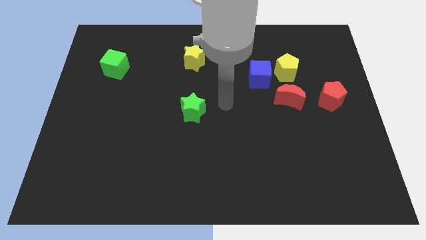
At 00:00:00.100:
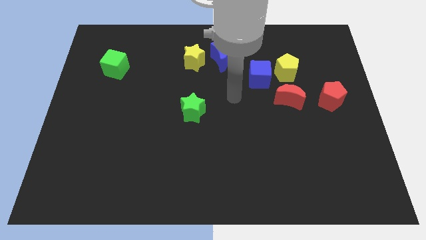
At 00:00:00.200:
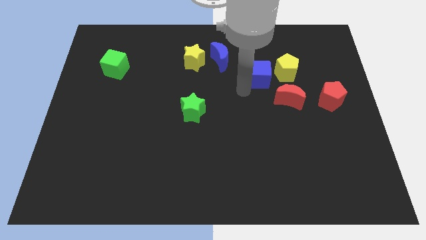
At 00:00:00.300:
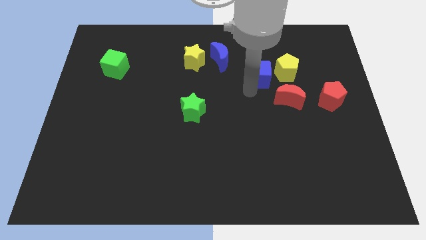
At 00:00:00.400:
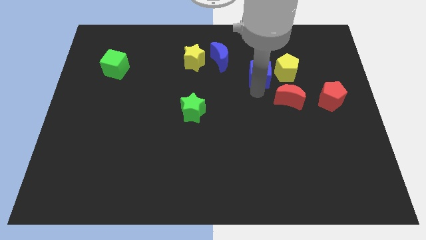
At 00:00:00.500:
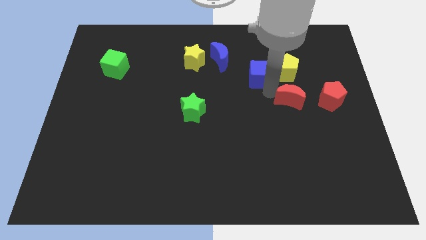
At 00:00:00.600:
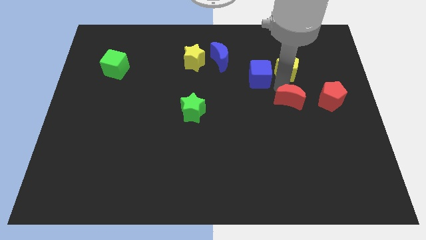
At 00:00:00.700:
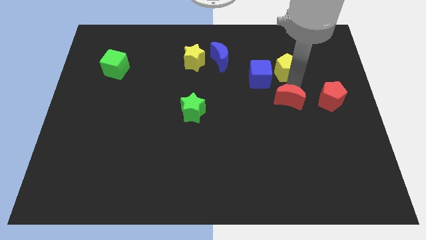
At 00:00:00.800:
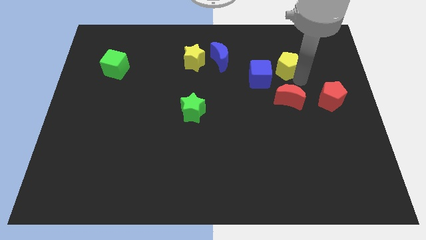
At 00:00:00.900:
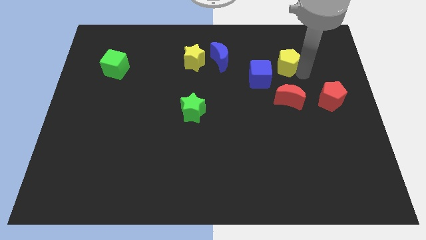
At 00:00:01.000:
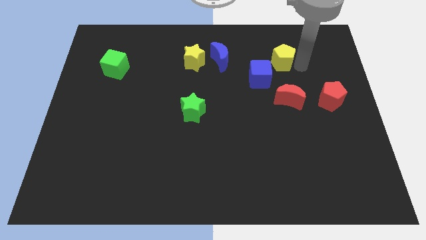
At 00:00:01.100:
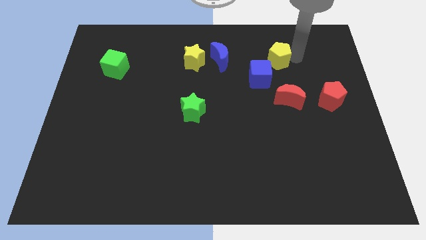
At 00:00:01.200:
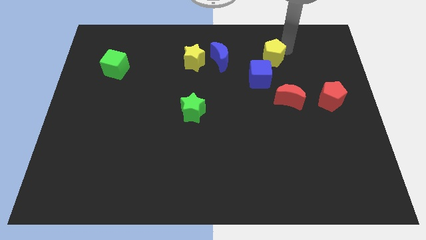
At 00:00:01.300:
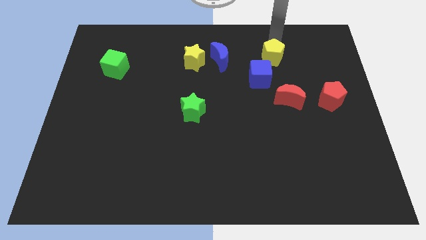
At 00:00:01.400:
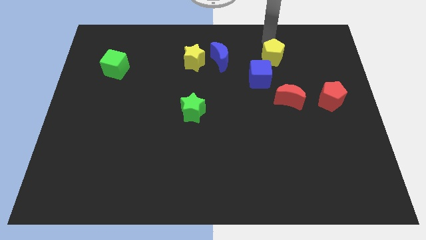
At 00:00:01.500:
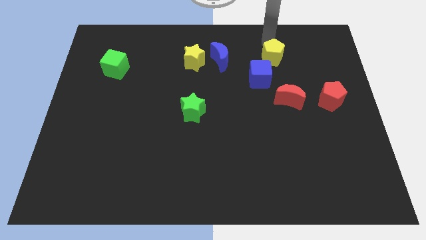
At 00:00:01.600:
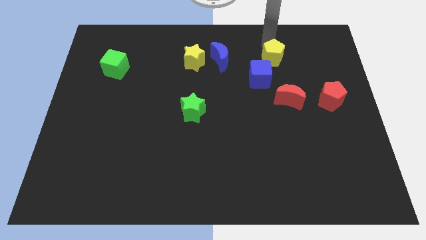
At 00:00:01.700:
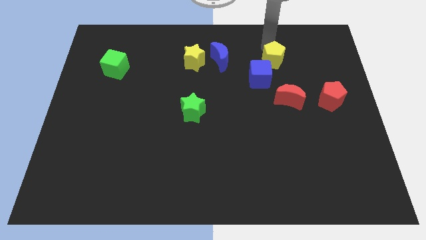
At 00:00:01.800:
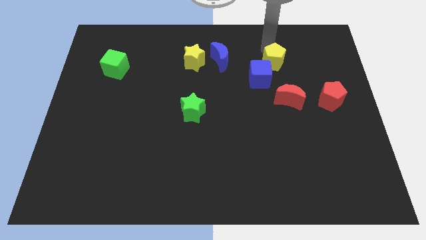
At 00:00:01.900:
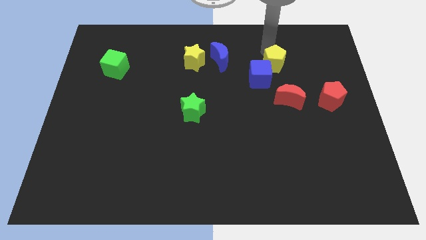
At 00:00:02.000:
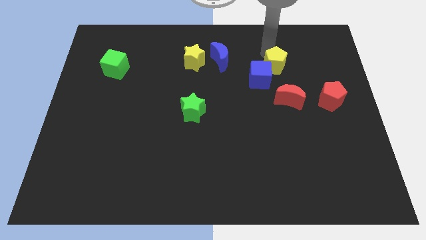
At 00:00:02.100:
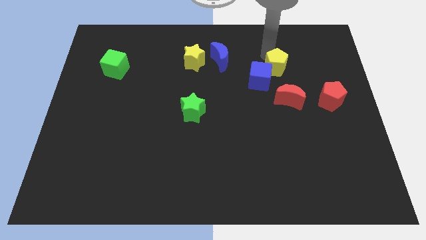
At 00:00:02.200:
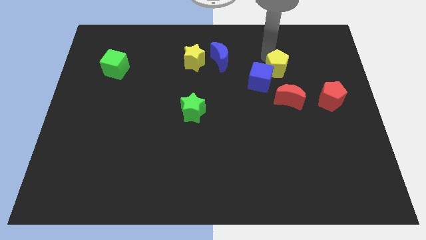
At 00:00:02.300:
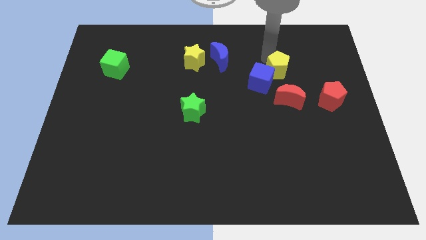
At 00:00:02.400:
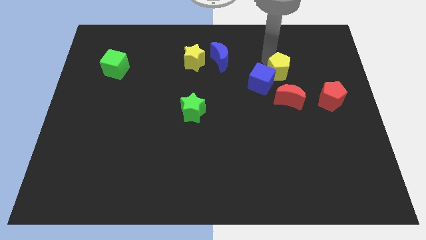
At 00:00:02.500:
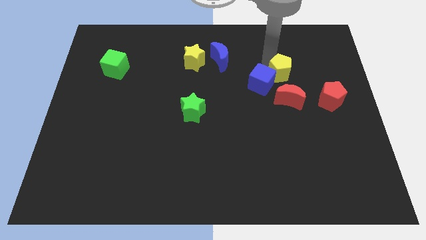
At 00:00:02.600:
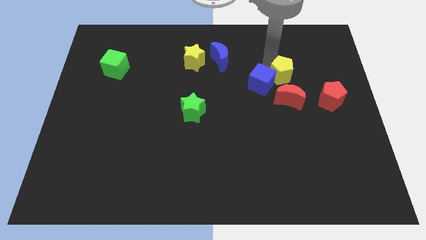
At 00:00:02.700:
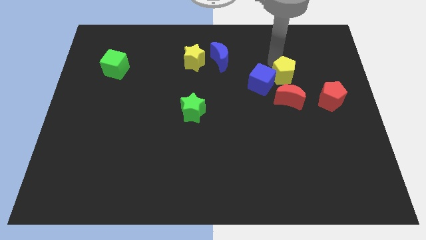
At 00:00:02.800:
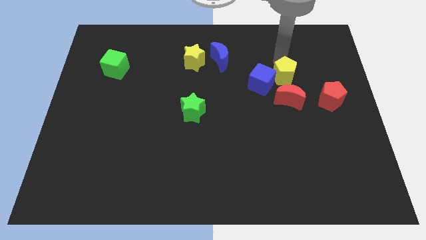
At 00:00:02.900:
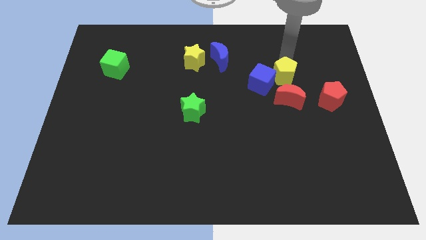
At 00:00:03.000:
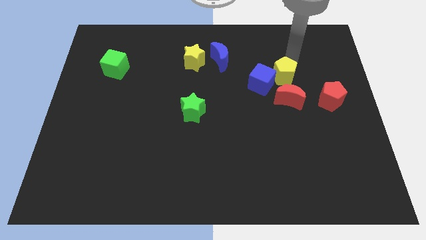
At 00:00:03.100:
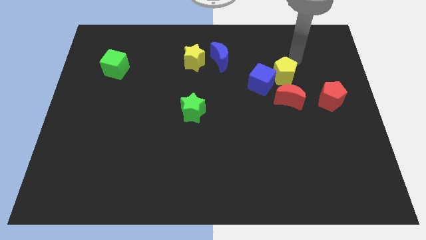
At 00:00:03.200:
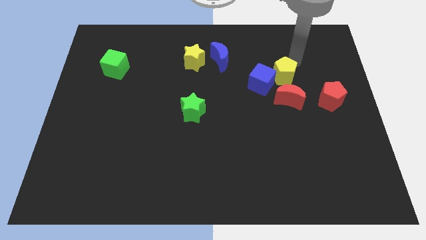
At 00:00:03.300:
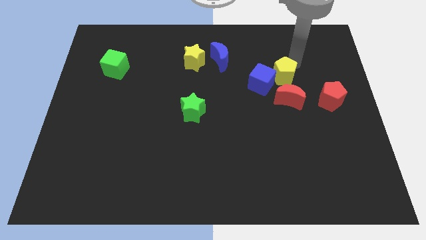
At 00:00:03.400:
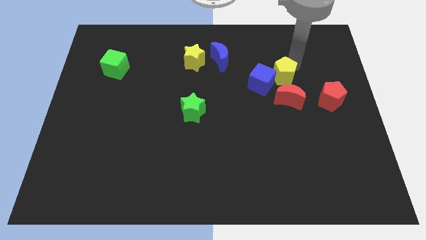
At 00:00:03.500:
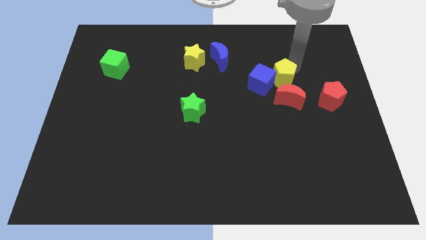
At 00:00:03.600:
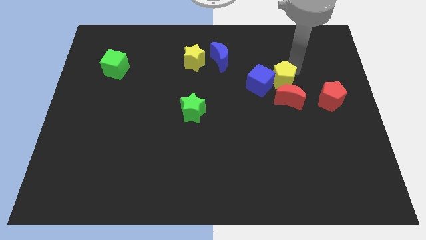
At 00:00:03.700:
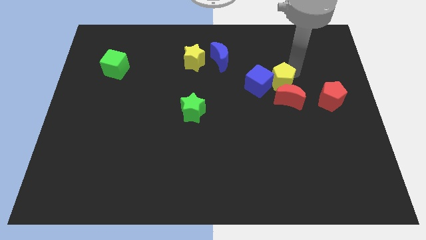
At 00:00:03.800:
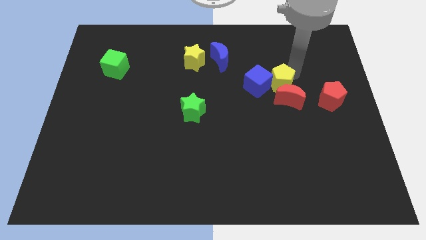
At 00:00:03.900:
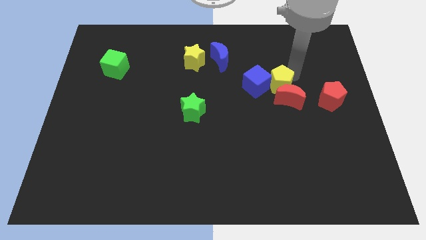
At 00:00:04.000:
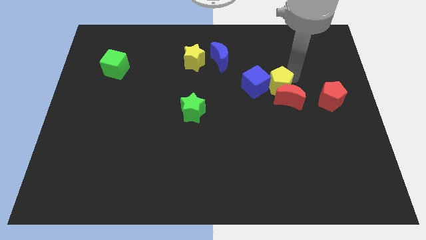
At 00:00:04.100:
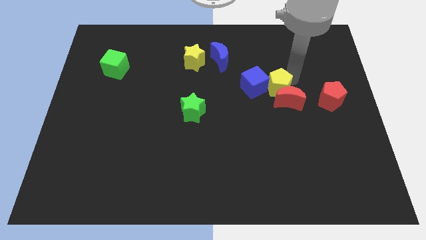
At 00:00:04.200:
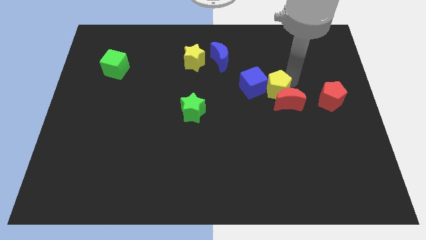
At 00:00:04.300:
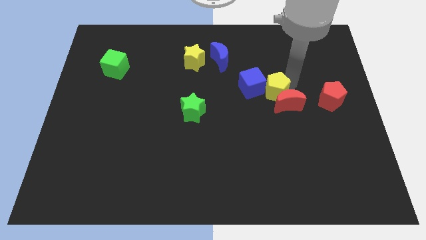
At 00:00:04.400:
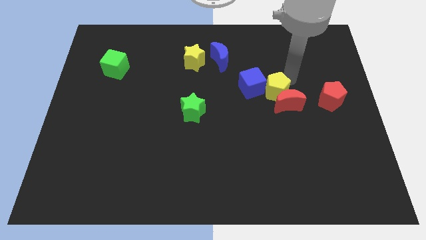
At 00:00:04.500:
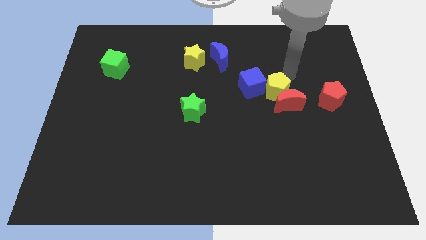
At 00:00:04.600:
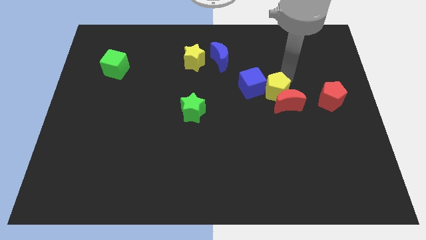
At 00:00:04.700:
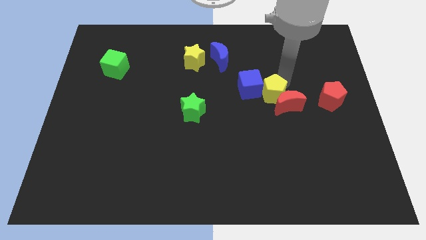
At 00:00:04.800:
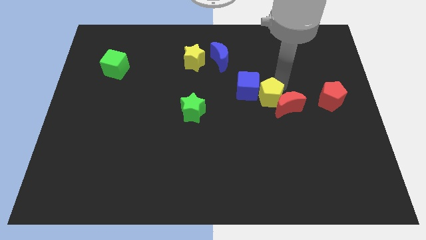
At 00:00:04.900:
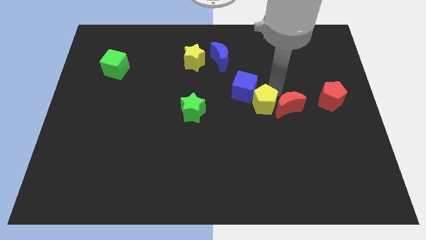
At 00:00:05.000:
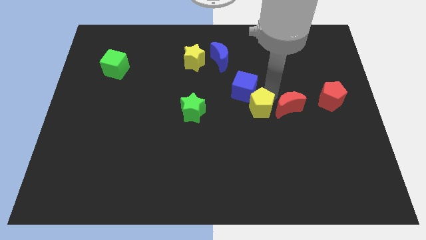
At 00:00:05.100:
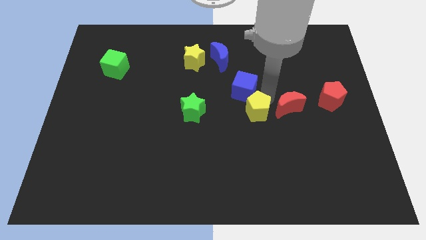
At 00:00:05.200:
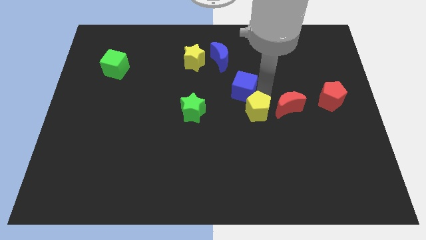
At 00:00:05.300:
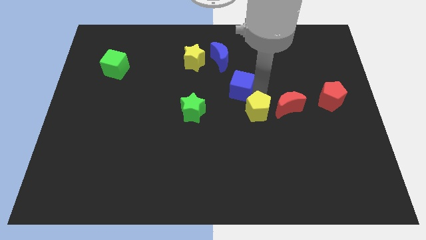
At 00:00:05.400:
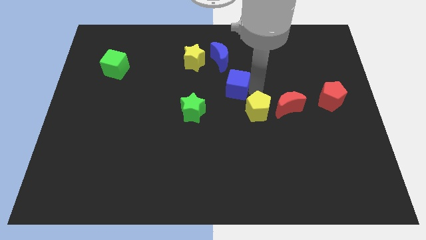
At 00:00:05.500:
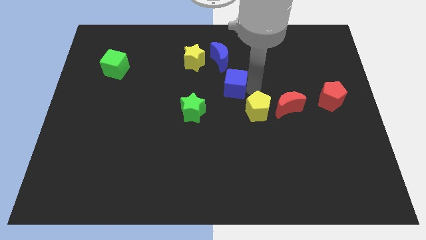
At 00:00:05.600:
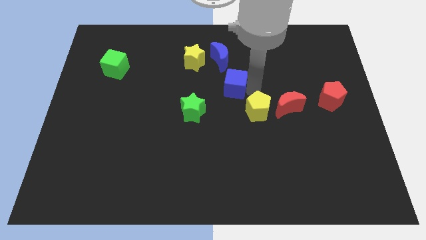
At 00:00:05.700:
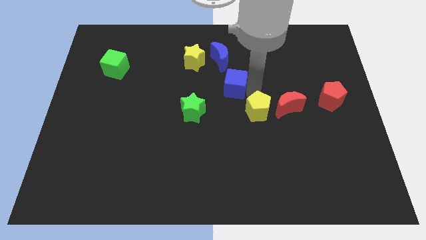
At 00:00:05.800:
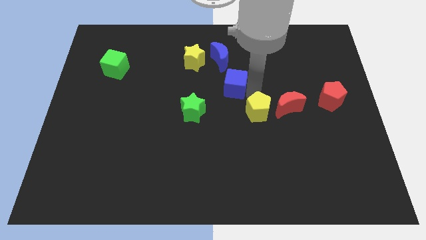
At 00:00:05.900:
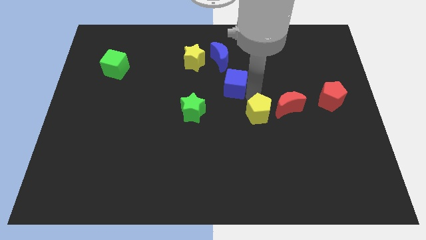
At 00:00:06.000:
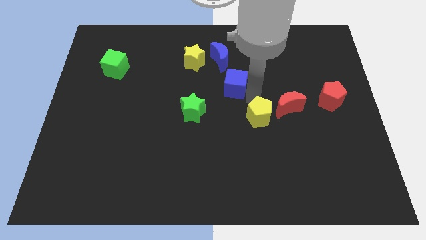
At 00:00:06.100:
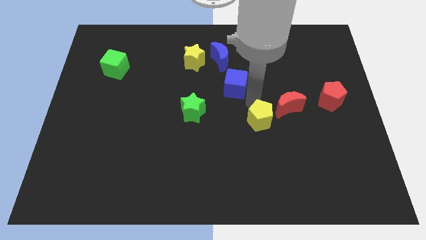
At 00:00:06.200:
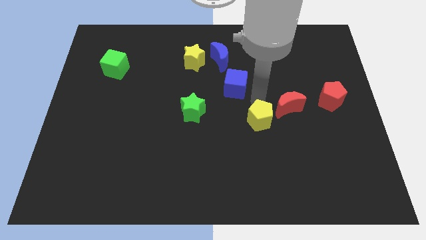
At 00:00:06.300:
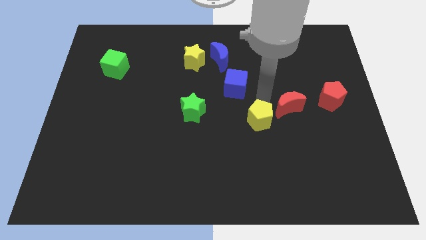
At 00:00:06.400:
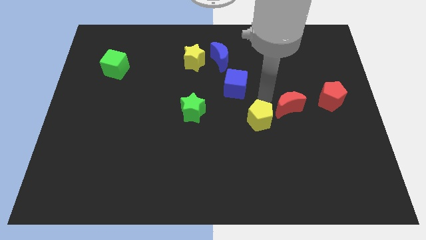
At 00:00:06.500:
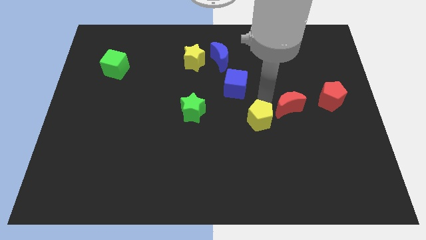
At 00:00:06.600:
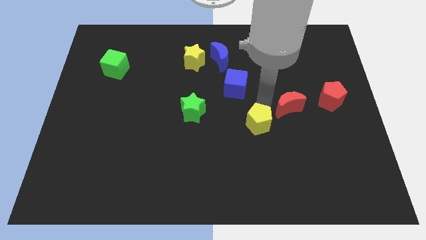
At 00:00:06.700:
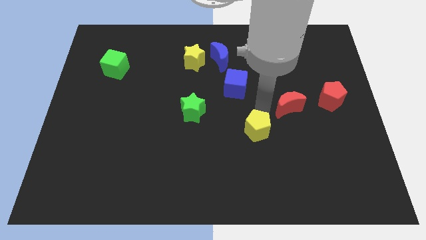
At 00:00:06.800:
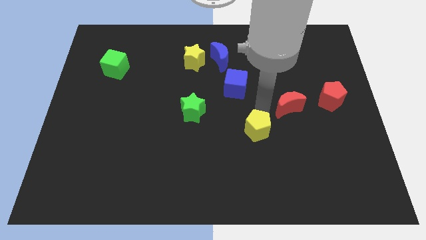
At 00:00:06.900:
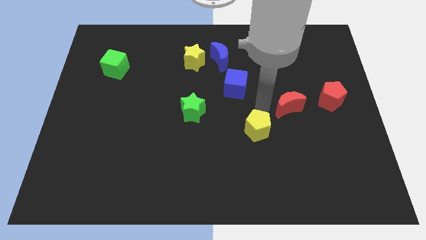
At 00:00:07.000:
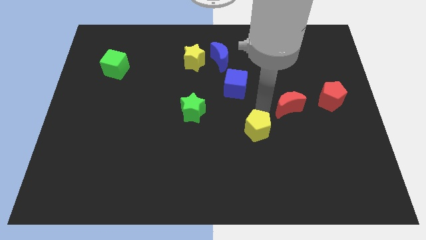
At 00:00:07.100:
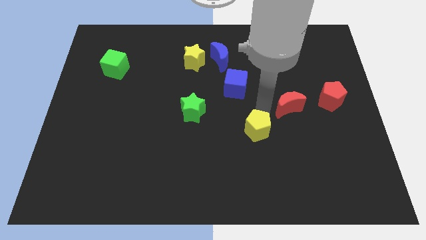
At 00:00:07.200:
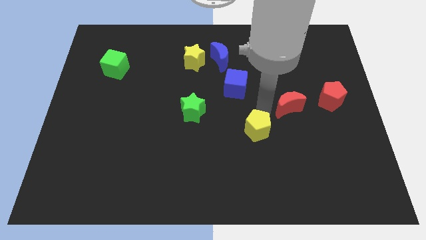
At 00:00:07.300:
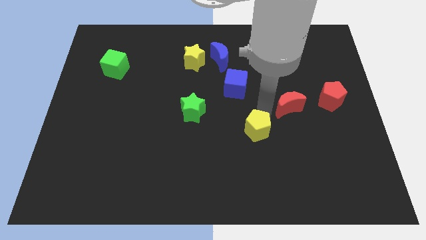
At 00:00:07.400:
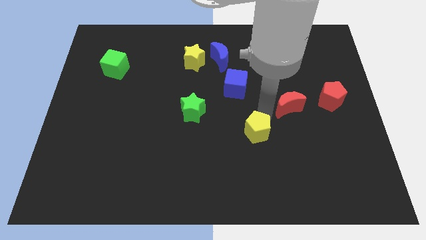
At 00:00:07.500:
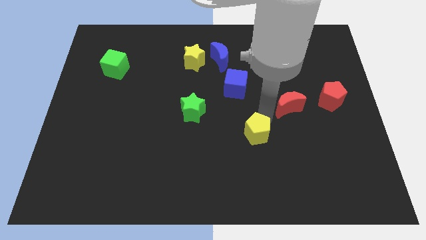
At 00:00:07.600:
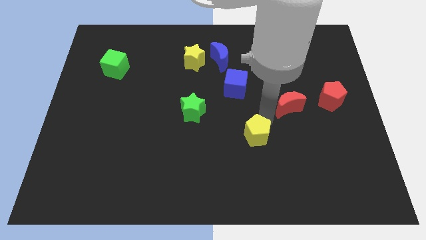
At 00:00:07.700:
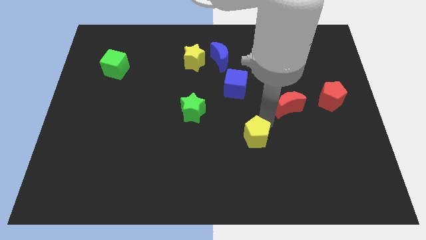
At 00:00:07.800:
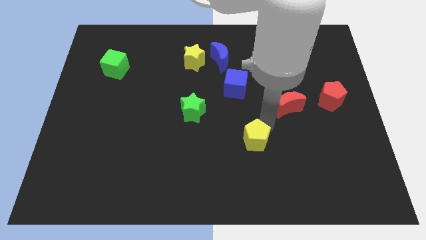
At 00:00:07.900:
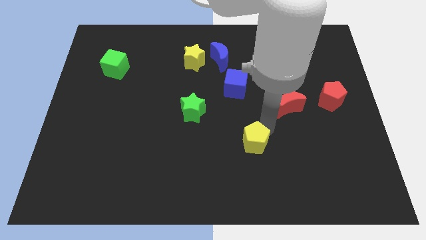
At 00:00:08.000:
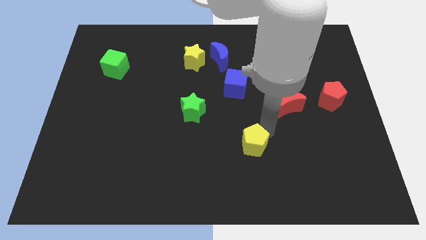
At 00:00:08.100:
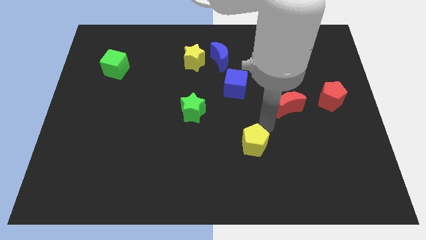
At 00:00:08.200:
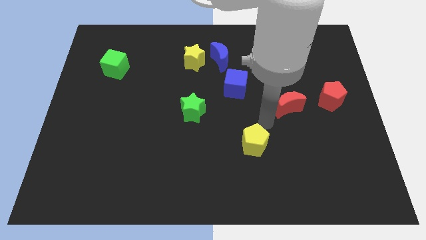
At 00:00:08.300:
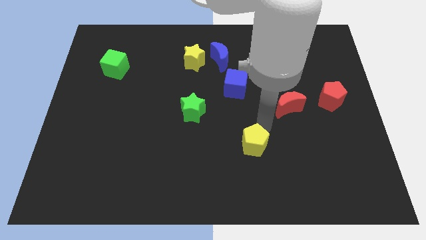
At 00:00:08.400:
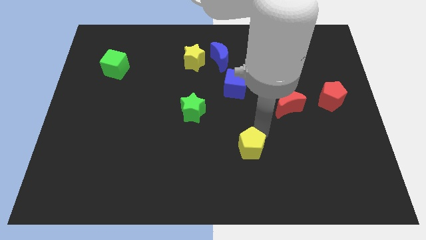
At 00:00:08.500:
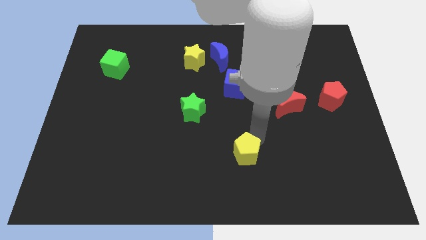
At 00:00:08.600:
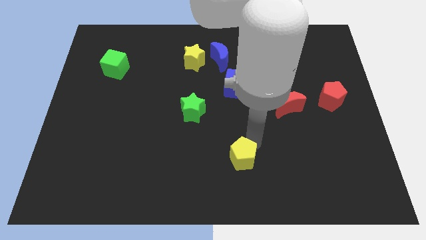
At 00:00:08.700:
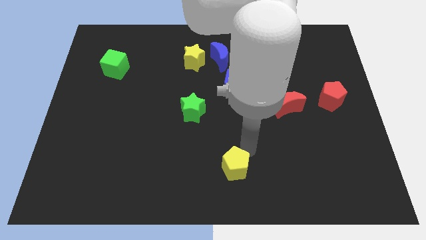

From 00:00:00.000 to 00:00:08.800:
move the yellow pentagon to the bottom side
